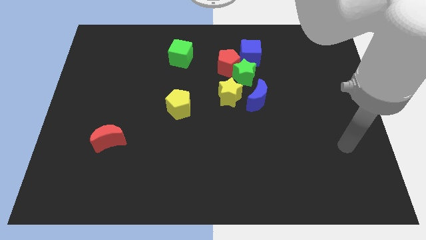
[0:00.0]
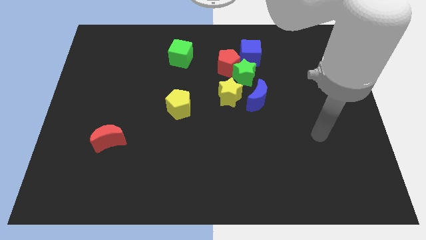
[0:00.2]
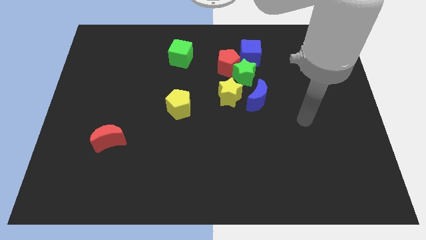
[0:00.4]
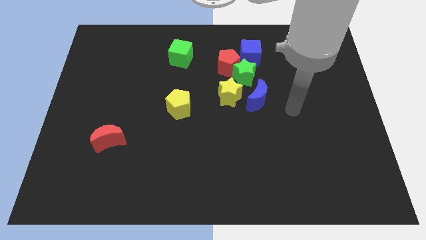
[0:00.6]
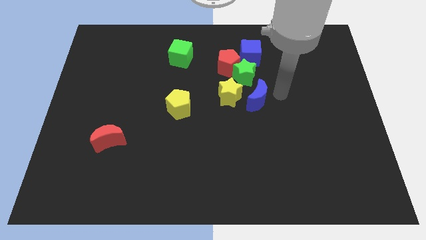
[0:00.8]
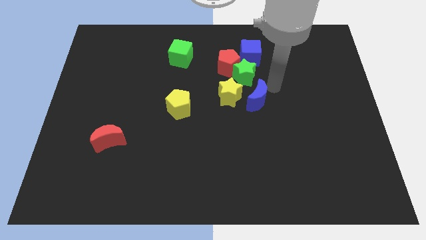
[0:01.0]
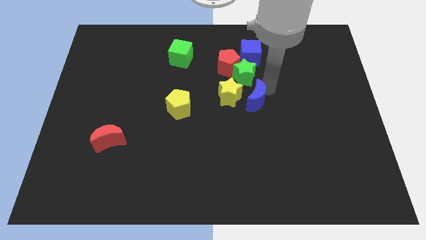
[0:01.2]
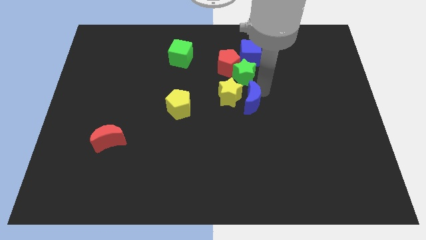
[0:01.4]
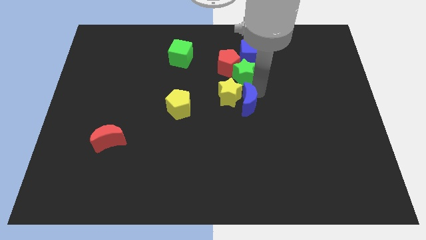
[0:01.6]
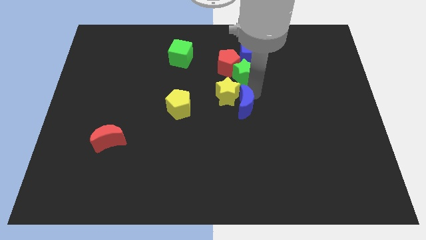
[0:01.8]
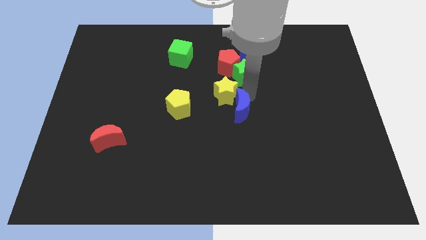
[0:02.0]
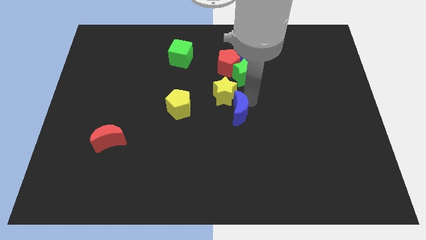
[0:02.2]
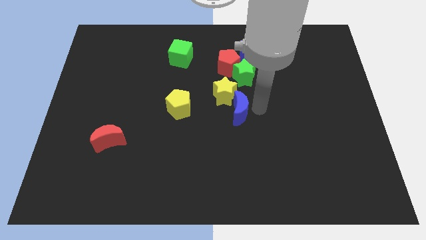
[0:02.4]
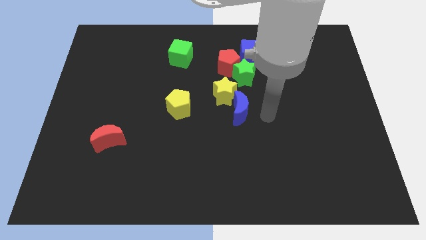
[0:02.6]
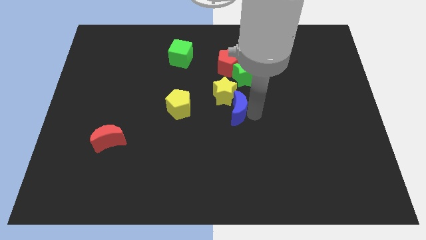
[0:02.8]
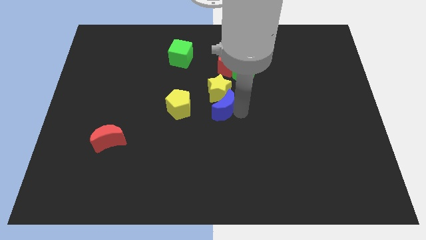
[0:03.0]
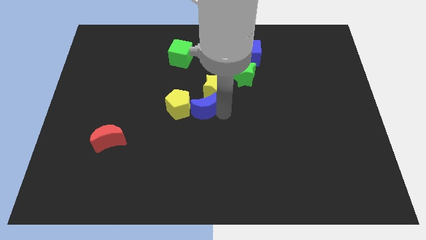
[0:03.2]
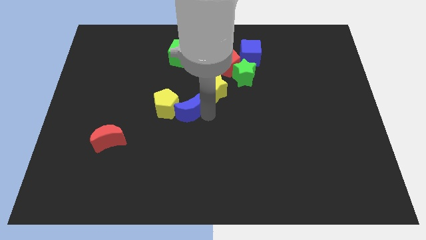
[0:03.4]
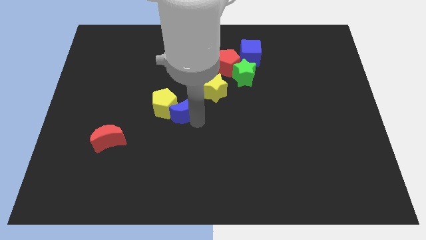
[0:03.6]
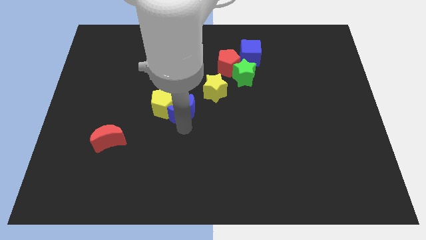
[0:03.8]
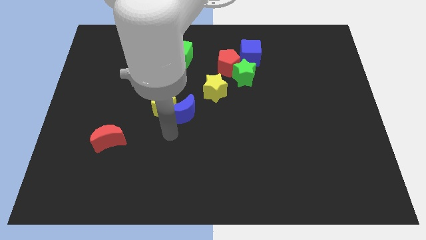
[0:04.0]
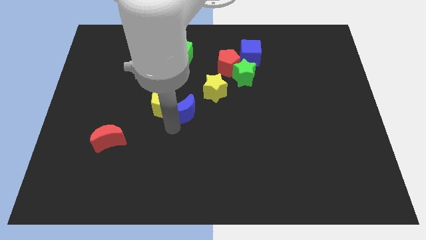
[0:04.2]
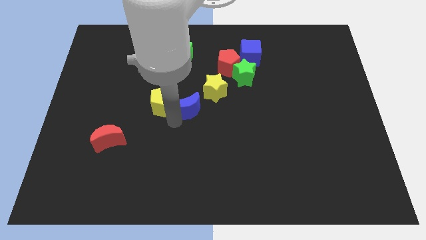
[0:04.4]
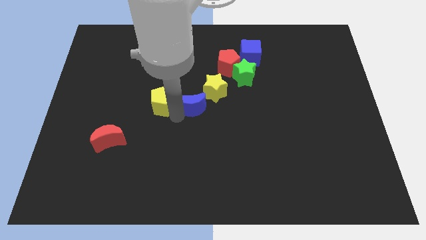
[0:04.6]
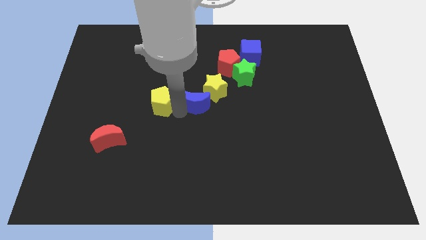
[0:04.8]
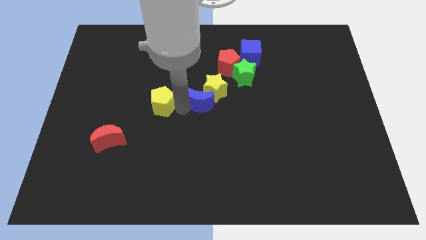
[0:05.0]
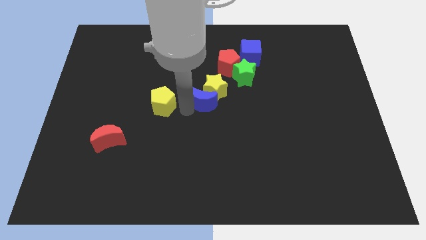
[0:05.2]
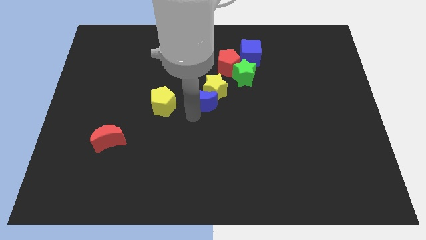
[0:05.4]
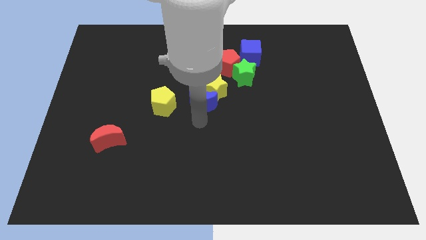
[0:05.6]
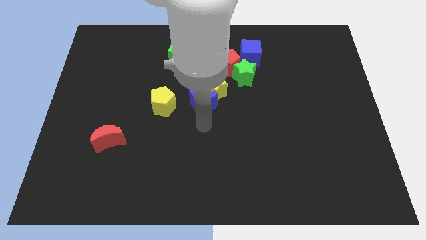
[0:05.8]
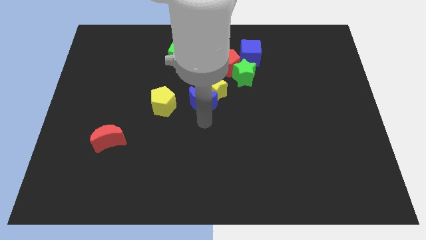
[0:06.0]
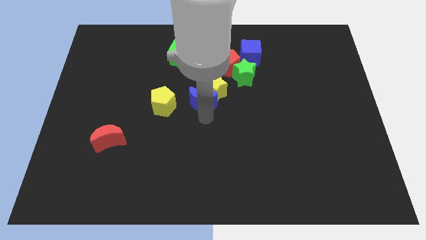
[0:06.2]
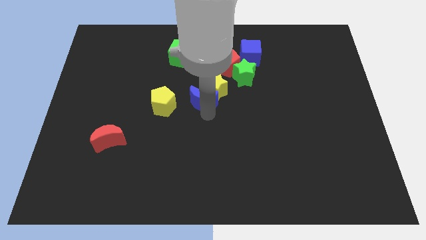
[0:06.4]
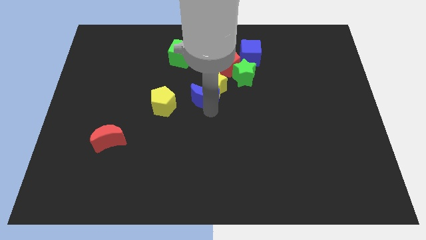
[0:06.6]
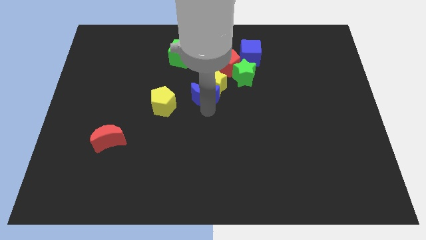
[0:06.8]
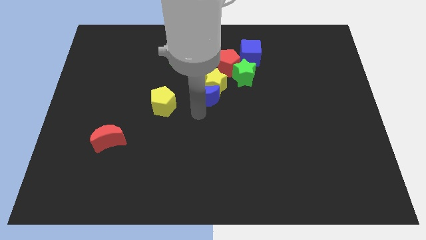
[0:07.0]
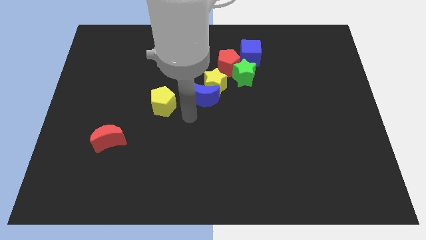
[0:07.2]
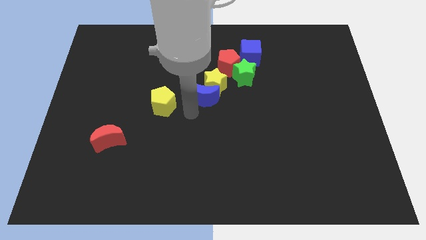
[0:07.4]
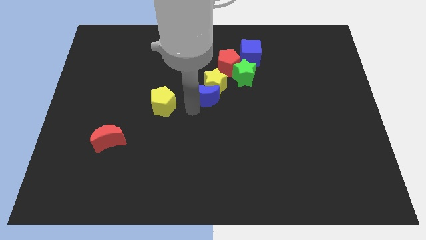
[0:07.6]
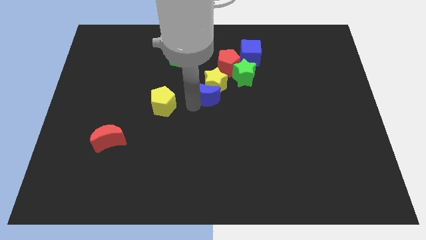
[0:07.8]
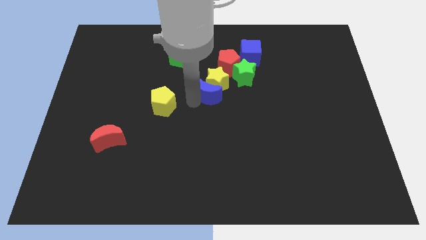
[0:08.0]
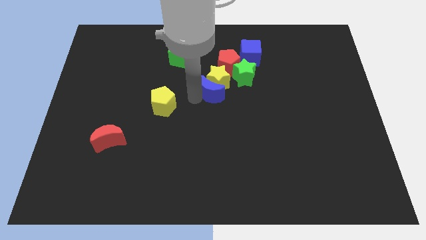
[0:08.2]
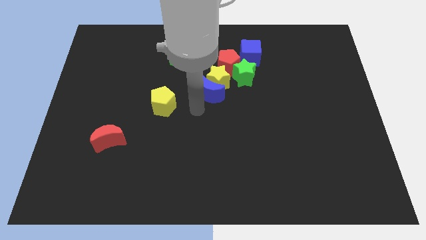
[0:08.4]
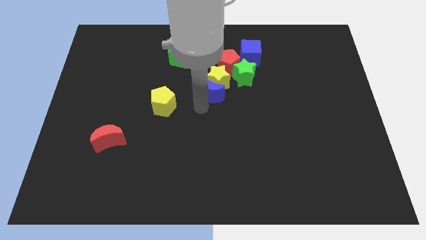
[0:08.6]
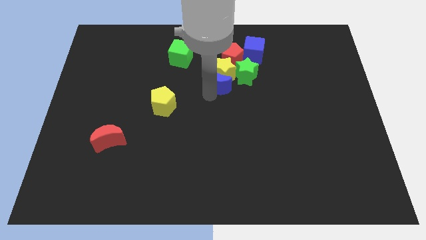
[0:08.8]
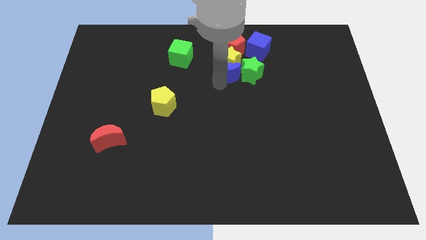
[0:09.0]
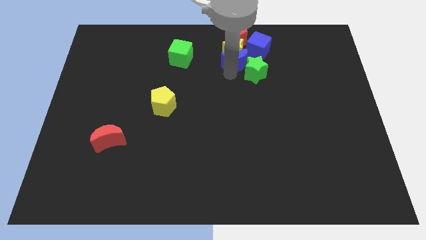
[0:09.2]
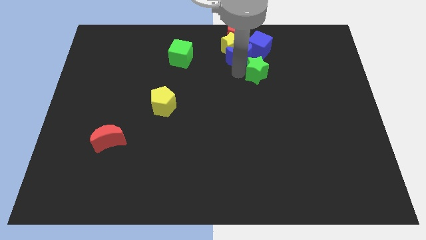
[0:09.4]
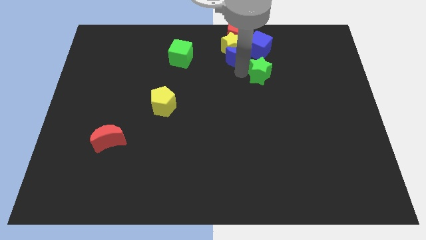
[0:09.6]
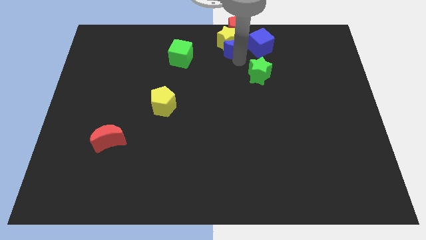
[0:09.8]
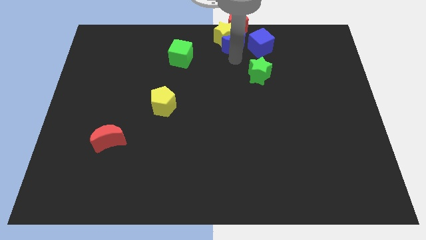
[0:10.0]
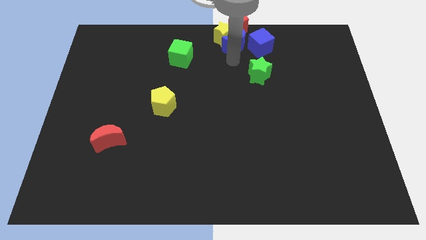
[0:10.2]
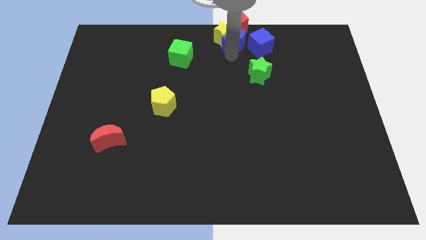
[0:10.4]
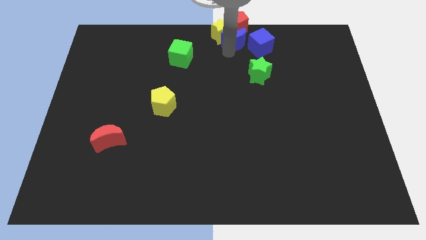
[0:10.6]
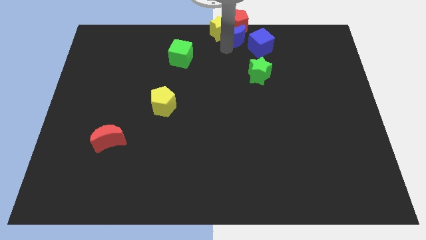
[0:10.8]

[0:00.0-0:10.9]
push the blue moon to the red pentagon

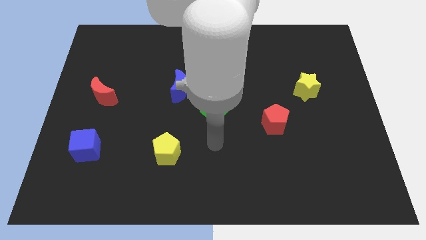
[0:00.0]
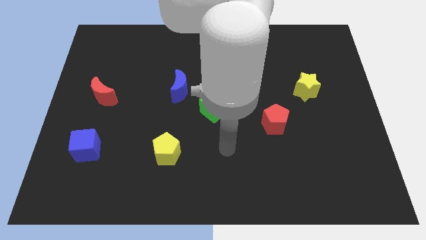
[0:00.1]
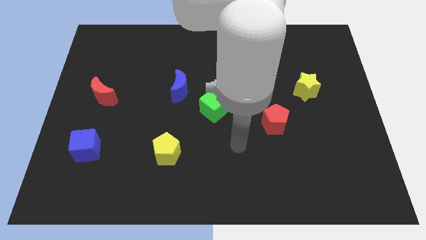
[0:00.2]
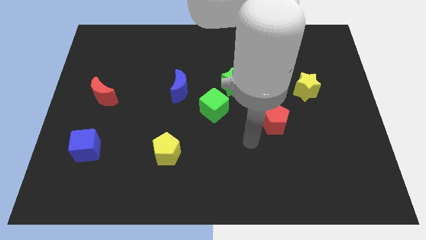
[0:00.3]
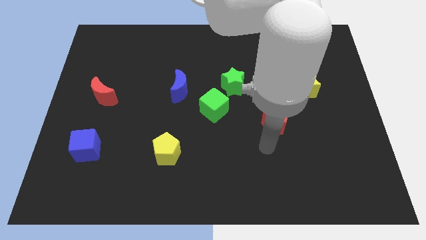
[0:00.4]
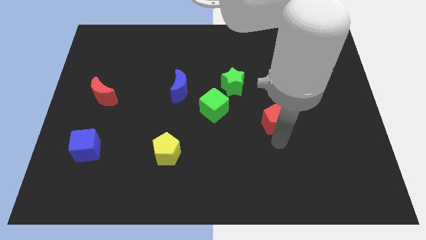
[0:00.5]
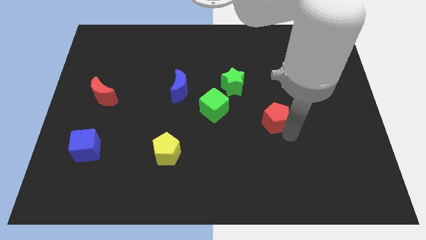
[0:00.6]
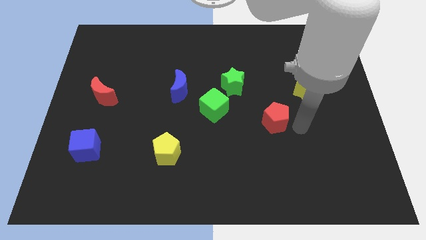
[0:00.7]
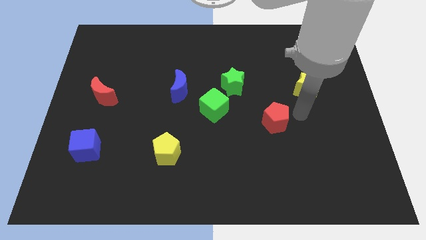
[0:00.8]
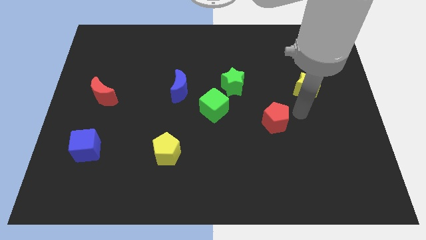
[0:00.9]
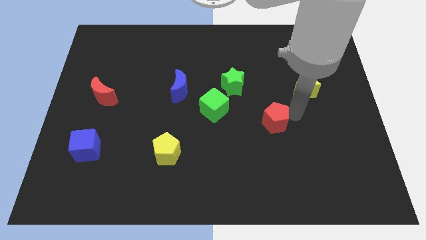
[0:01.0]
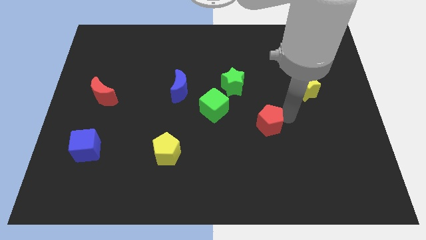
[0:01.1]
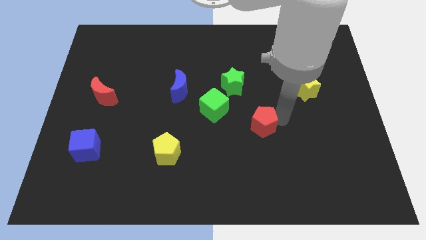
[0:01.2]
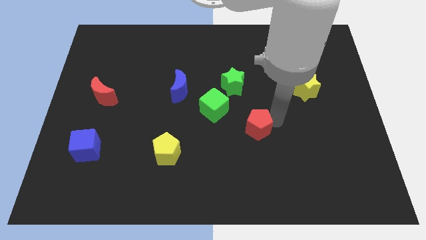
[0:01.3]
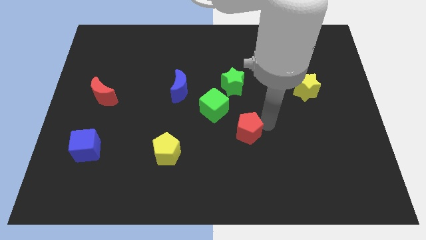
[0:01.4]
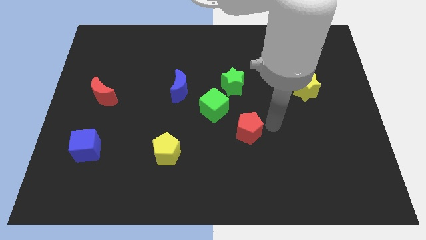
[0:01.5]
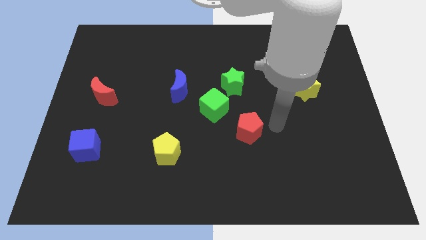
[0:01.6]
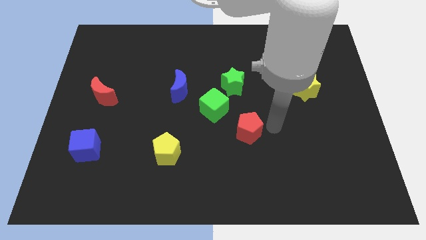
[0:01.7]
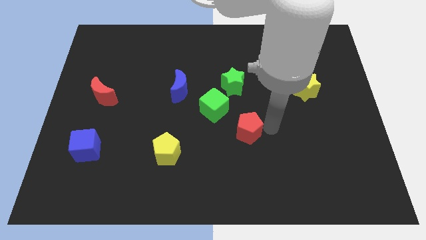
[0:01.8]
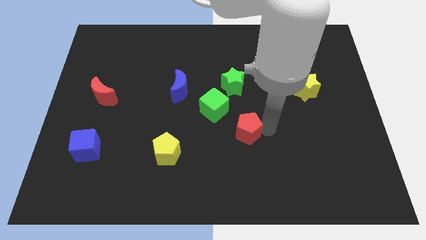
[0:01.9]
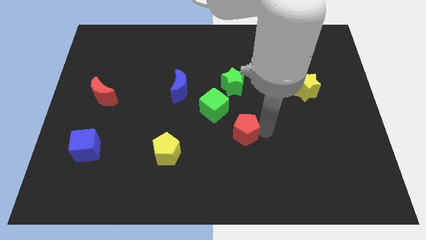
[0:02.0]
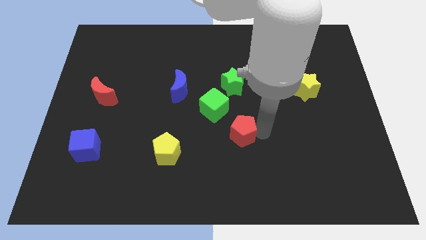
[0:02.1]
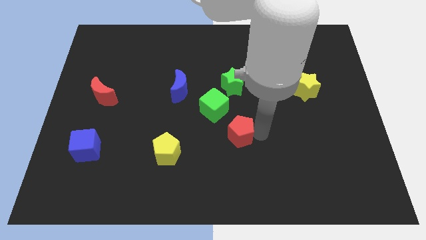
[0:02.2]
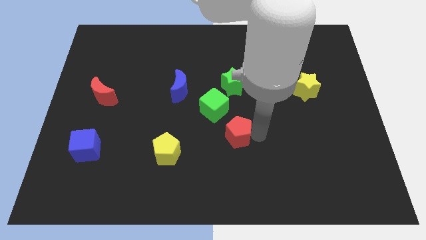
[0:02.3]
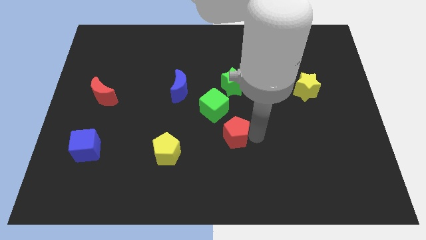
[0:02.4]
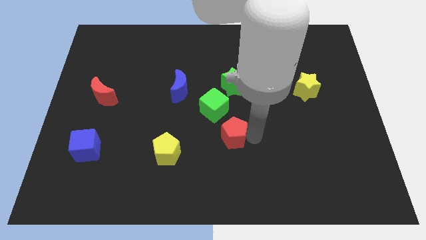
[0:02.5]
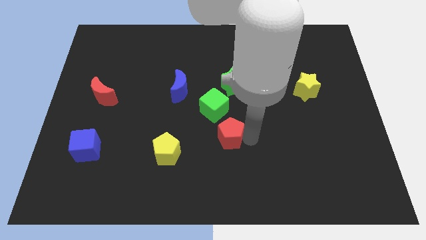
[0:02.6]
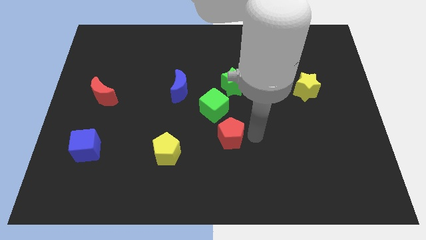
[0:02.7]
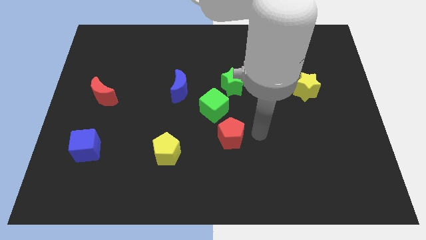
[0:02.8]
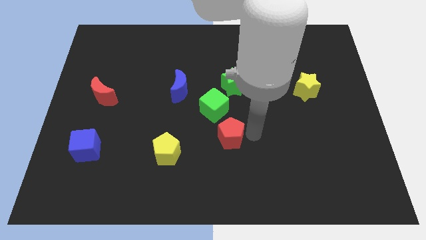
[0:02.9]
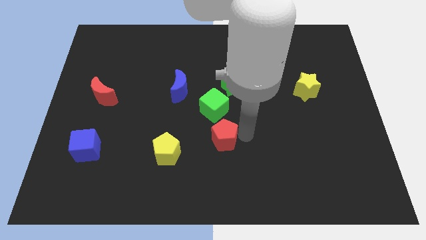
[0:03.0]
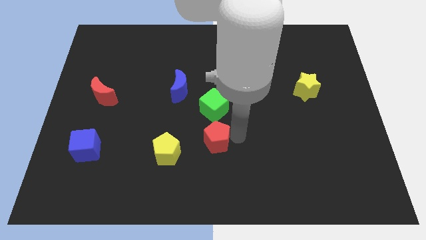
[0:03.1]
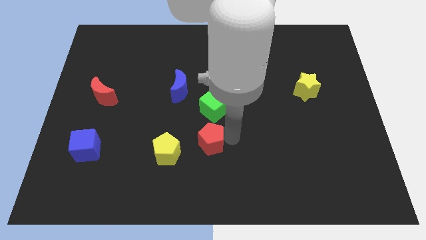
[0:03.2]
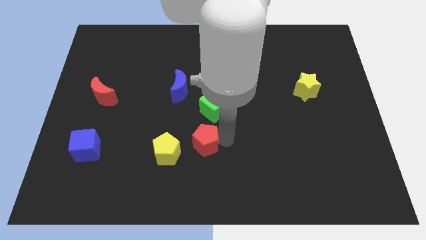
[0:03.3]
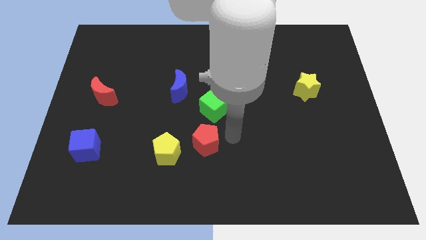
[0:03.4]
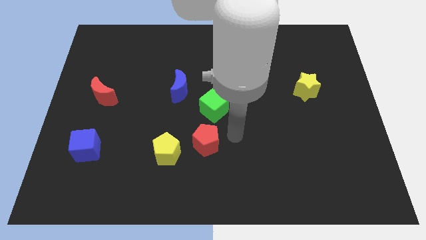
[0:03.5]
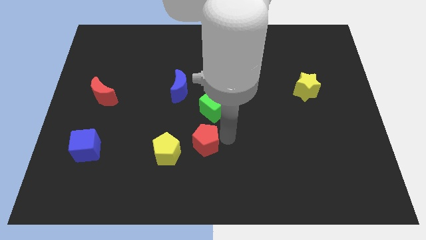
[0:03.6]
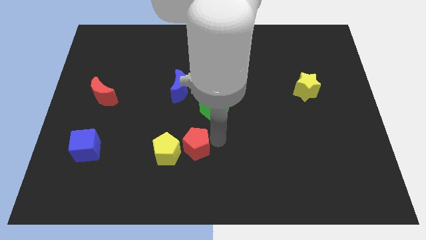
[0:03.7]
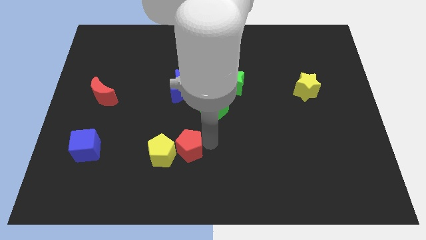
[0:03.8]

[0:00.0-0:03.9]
put the red pentagon towards the yellow pentagon
